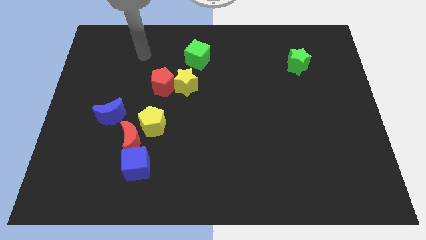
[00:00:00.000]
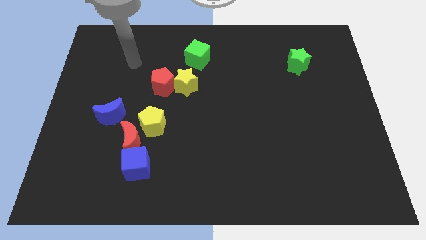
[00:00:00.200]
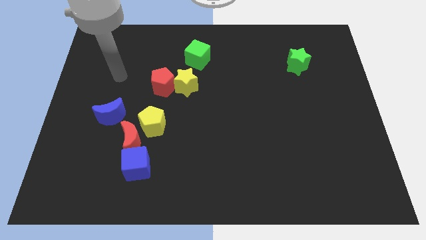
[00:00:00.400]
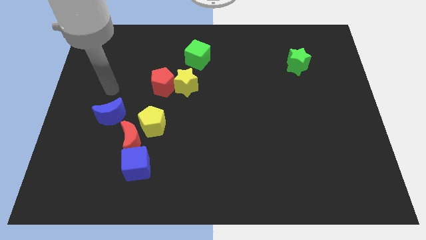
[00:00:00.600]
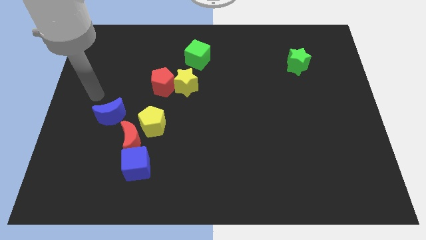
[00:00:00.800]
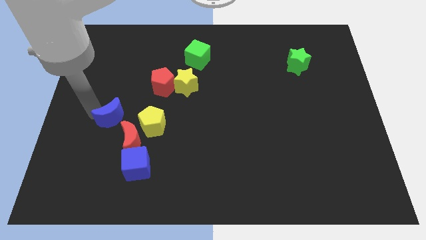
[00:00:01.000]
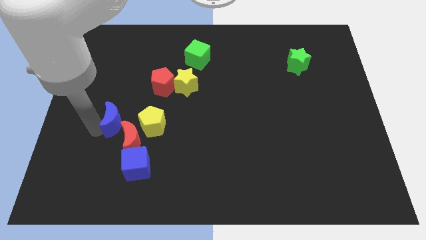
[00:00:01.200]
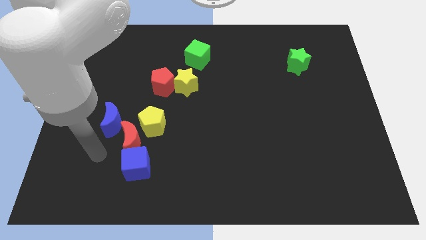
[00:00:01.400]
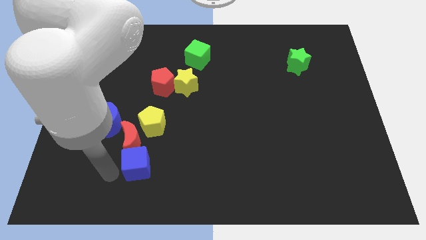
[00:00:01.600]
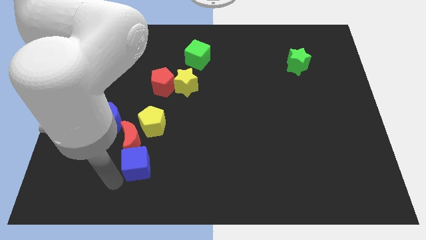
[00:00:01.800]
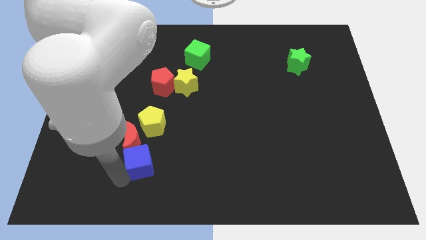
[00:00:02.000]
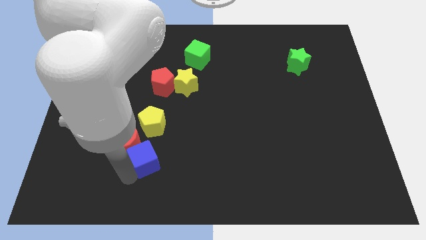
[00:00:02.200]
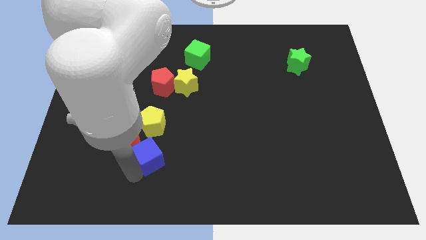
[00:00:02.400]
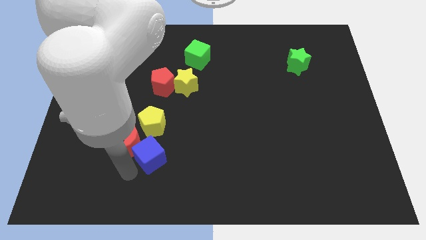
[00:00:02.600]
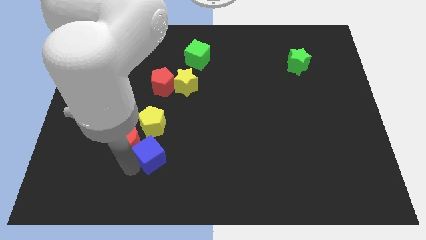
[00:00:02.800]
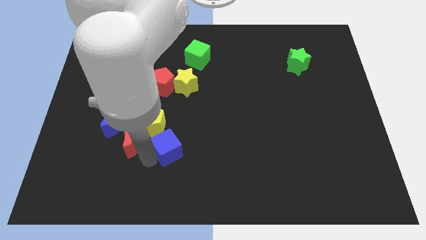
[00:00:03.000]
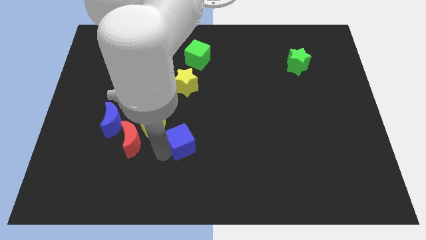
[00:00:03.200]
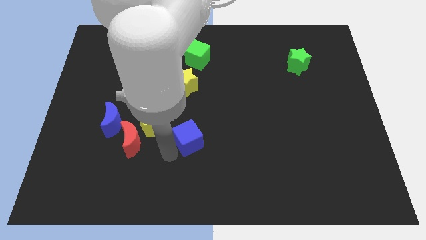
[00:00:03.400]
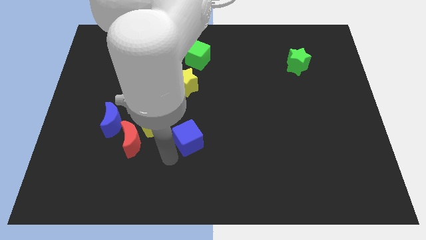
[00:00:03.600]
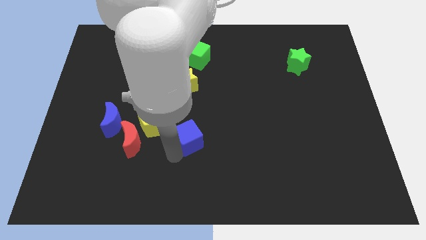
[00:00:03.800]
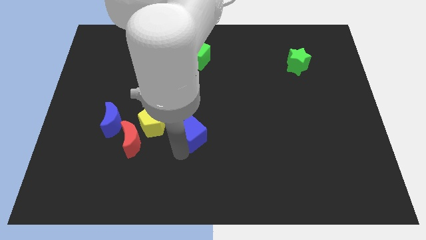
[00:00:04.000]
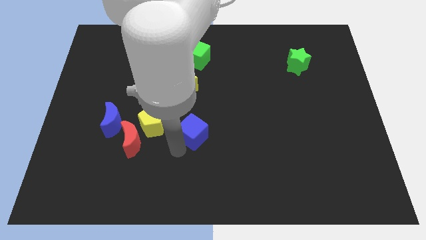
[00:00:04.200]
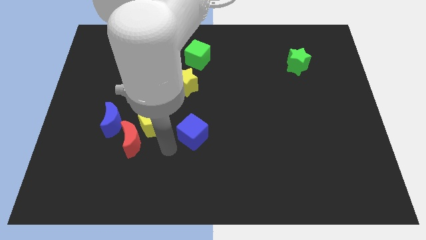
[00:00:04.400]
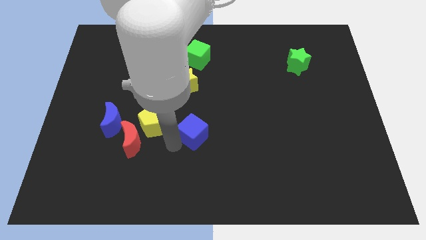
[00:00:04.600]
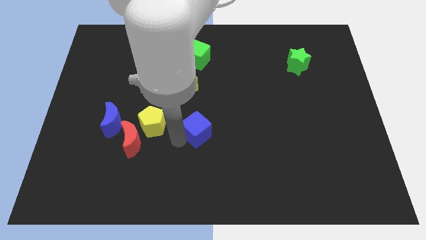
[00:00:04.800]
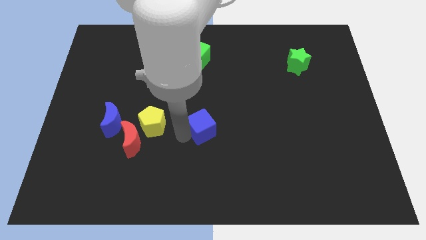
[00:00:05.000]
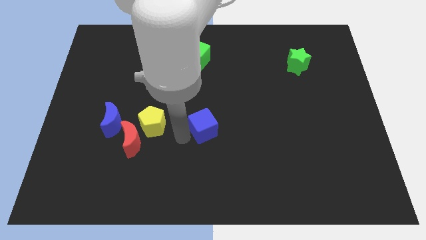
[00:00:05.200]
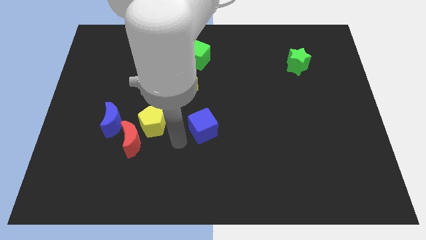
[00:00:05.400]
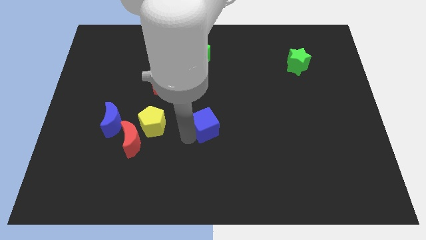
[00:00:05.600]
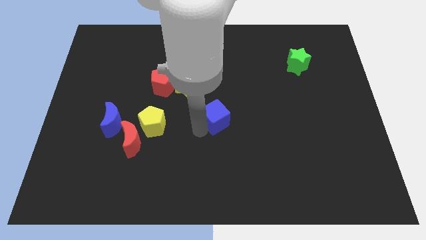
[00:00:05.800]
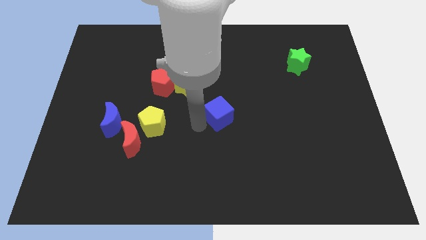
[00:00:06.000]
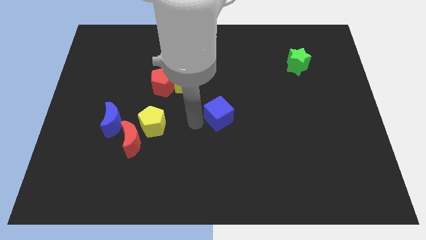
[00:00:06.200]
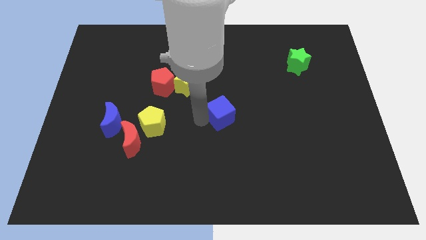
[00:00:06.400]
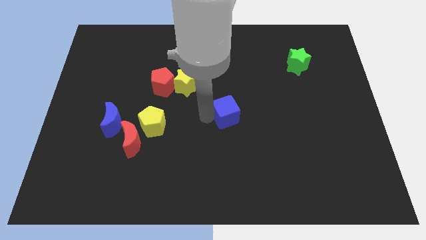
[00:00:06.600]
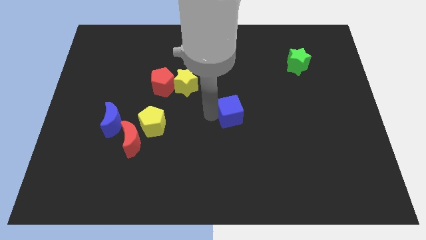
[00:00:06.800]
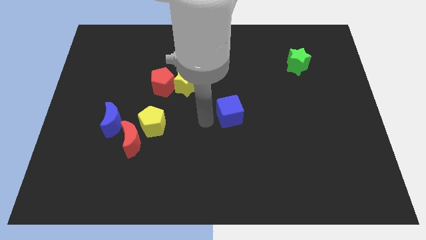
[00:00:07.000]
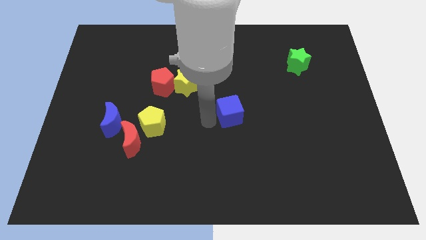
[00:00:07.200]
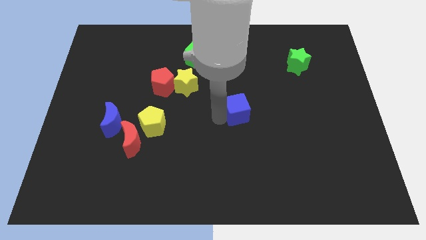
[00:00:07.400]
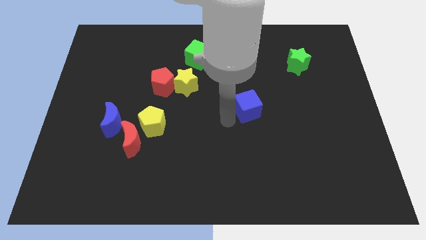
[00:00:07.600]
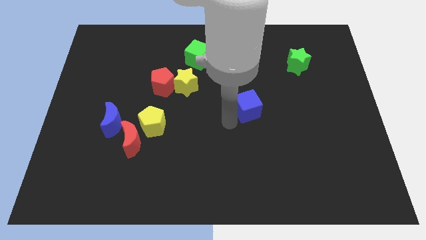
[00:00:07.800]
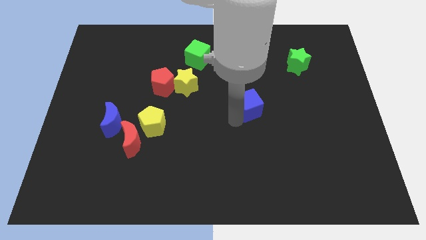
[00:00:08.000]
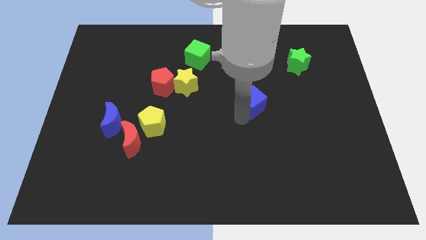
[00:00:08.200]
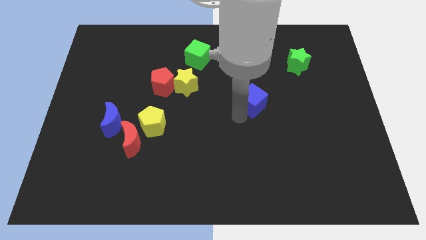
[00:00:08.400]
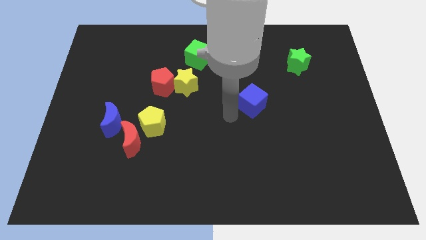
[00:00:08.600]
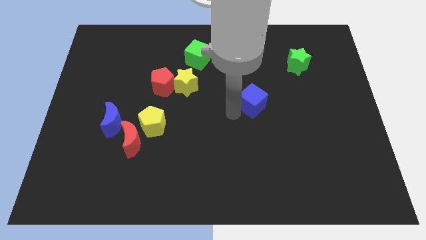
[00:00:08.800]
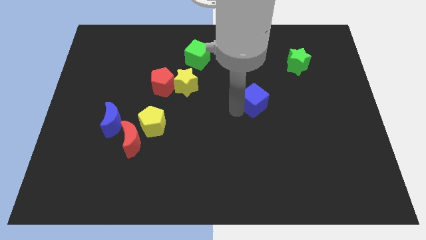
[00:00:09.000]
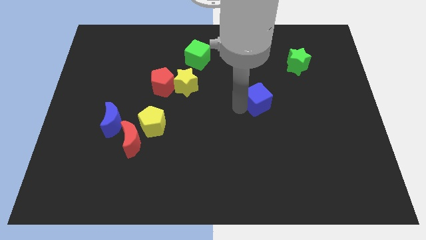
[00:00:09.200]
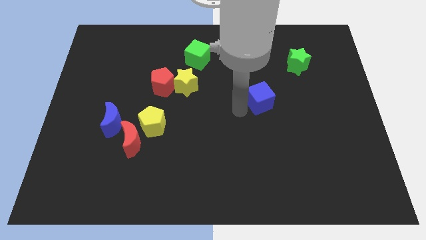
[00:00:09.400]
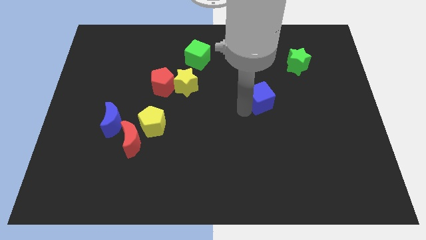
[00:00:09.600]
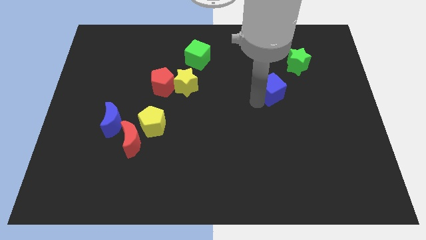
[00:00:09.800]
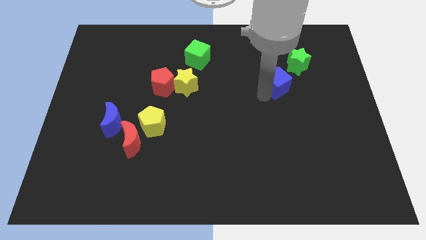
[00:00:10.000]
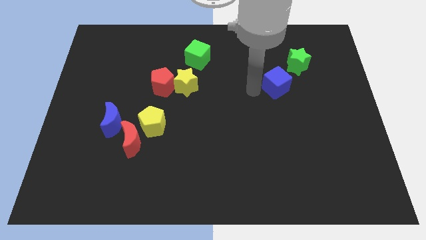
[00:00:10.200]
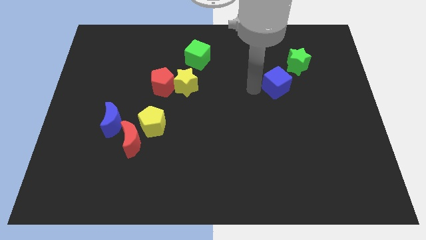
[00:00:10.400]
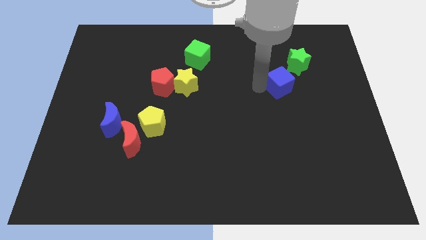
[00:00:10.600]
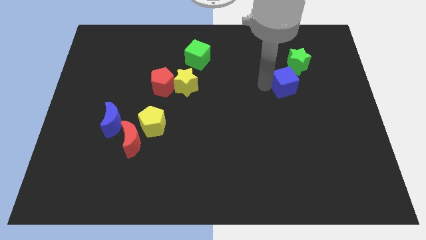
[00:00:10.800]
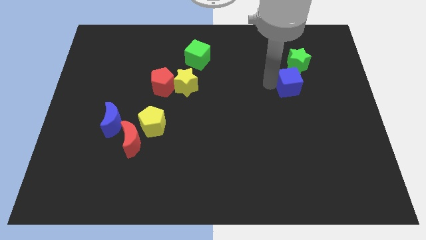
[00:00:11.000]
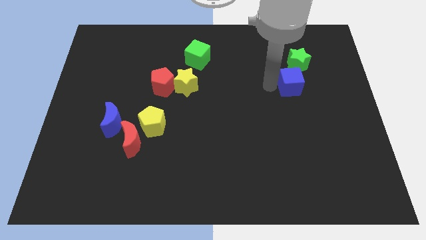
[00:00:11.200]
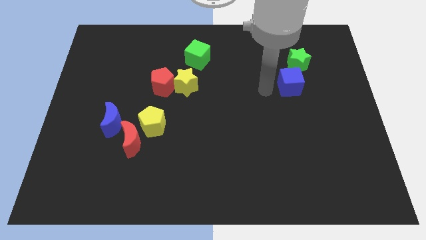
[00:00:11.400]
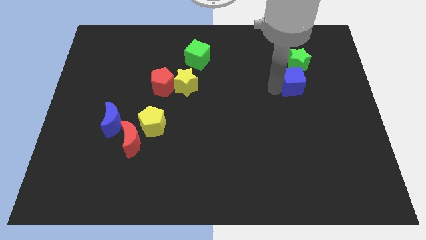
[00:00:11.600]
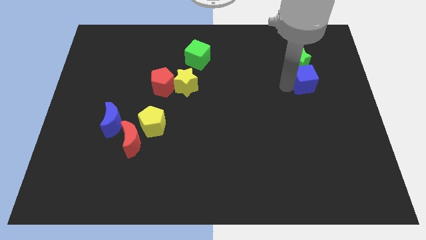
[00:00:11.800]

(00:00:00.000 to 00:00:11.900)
move the blue cube diagonally down and to the right of the green star

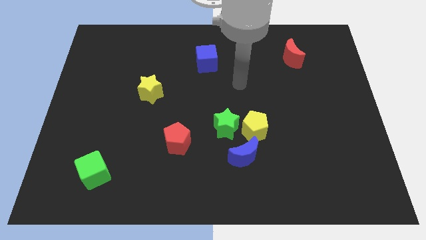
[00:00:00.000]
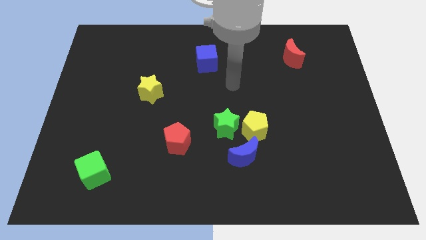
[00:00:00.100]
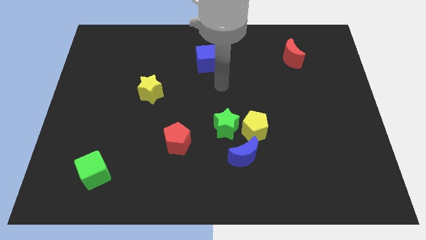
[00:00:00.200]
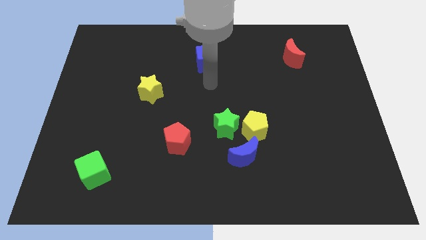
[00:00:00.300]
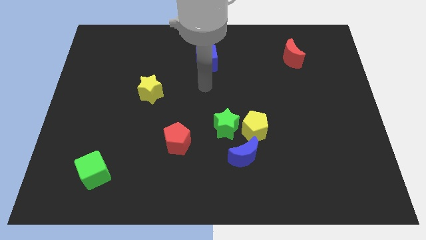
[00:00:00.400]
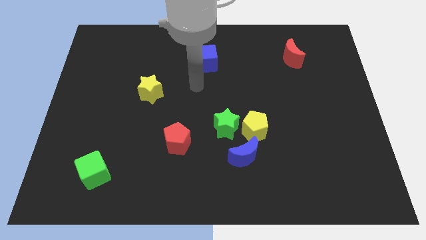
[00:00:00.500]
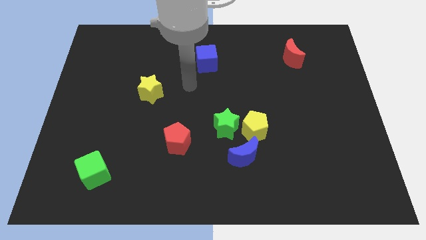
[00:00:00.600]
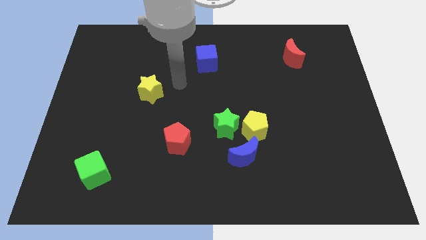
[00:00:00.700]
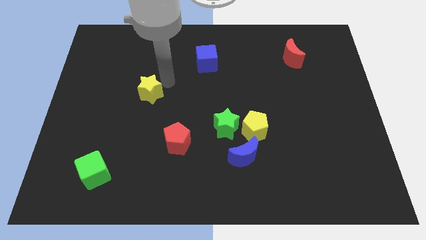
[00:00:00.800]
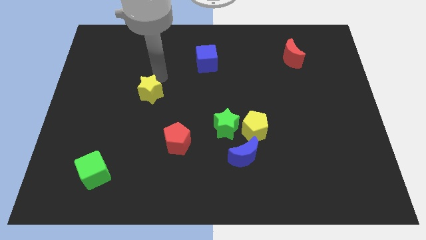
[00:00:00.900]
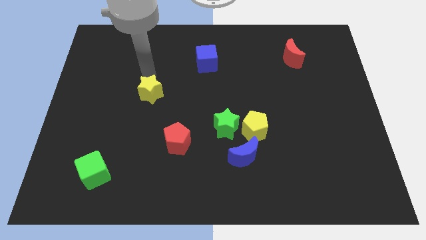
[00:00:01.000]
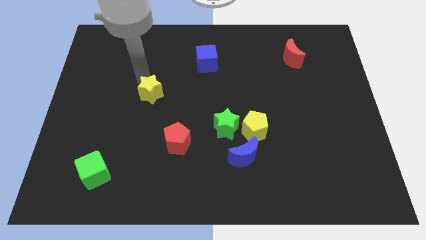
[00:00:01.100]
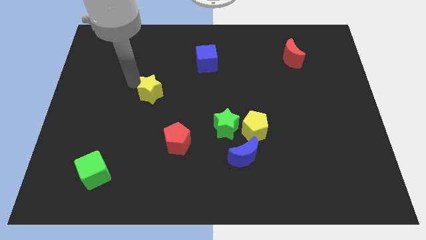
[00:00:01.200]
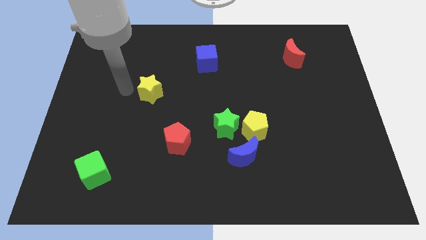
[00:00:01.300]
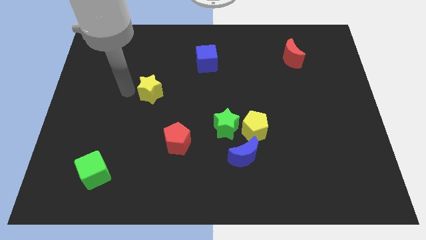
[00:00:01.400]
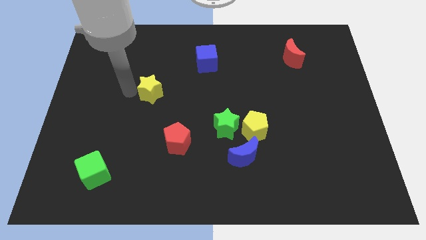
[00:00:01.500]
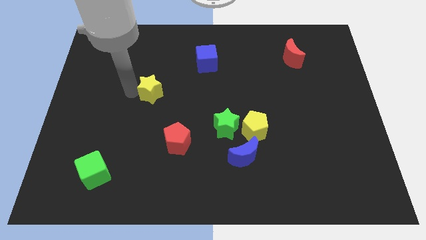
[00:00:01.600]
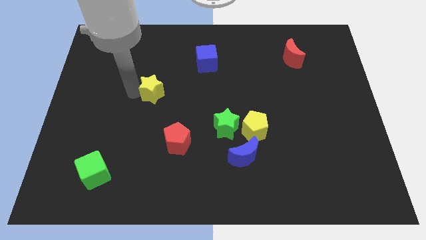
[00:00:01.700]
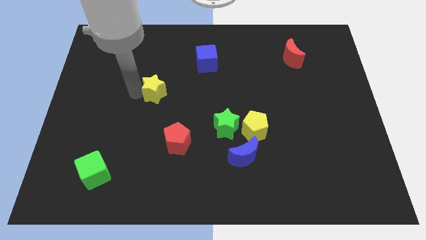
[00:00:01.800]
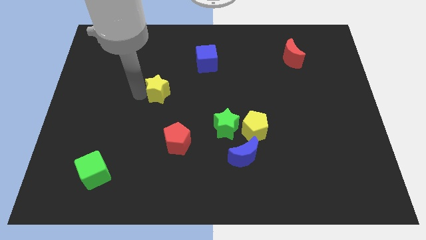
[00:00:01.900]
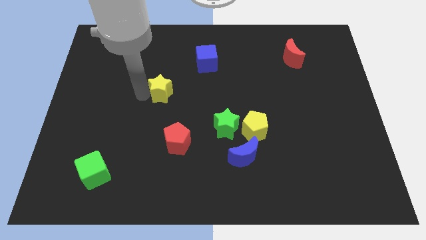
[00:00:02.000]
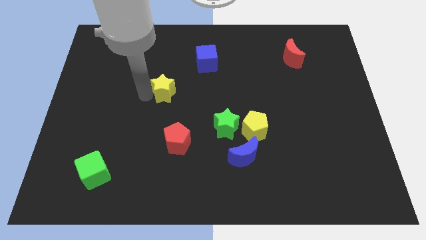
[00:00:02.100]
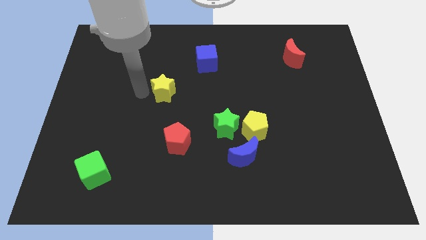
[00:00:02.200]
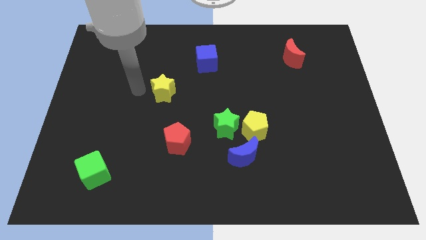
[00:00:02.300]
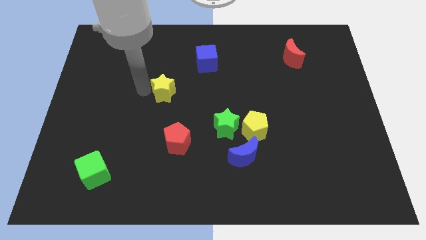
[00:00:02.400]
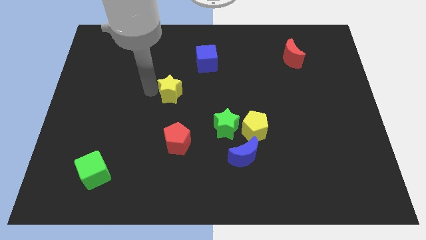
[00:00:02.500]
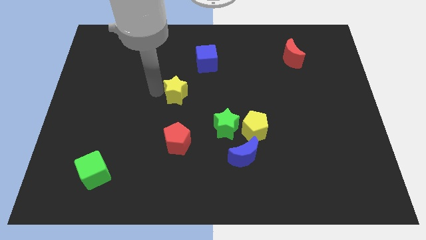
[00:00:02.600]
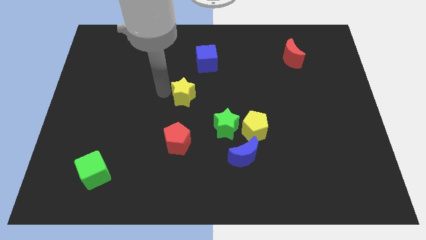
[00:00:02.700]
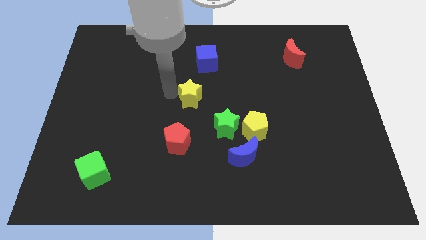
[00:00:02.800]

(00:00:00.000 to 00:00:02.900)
slide the yellow star to the bottom of the blue cube
